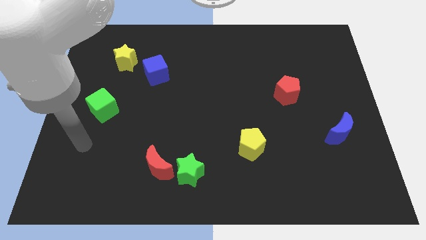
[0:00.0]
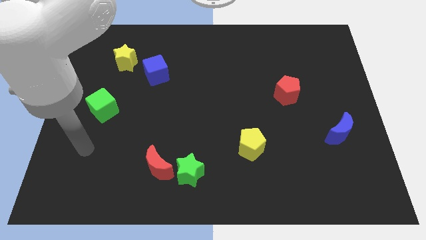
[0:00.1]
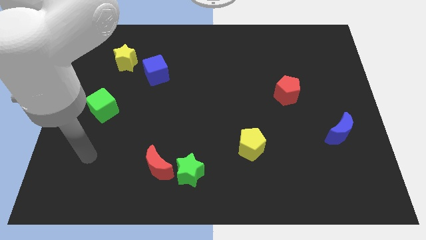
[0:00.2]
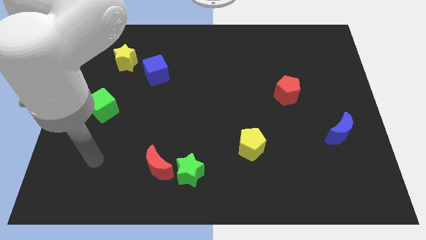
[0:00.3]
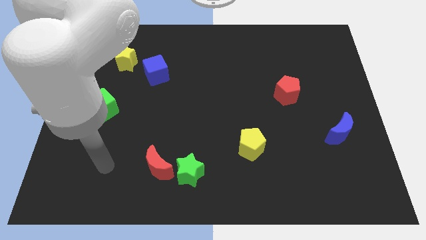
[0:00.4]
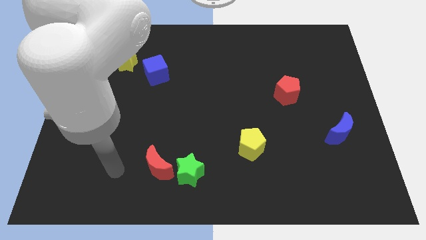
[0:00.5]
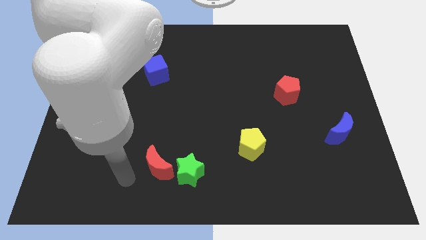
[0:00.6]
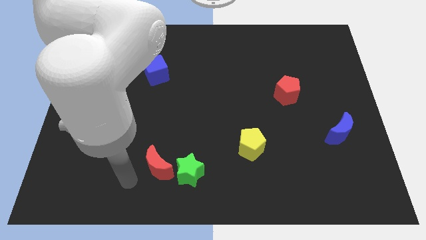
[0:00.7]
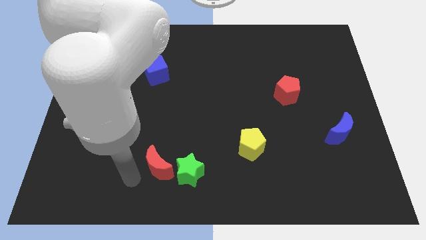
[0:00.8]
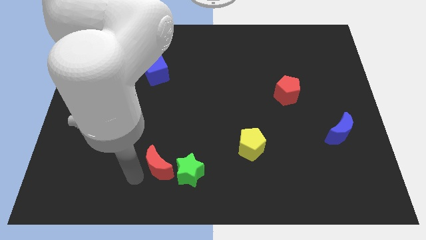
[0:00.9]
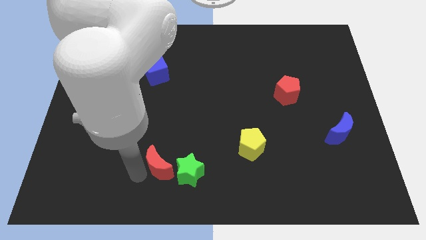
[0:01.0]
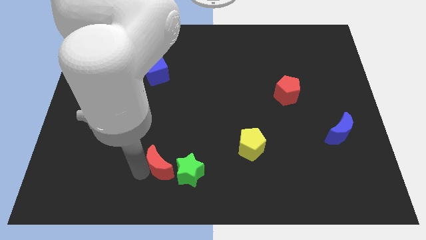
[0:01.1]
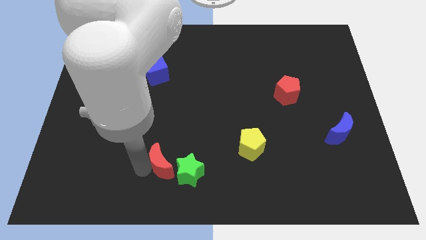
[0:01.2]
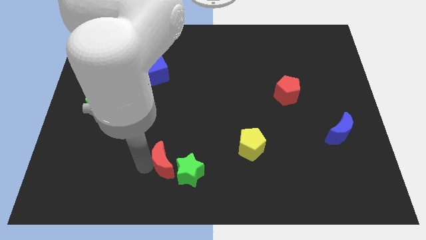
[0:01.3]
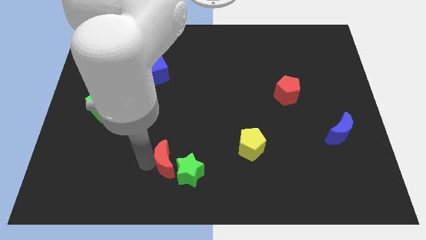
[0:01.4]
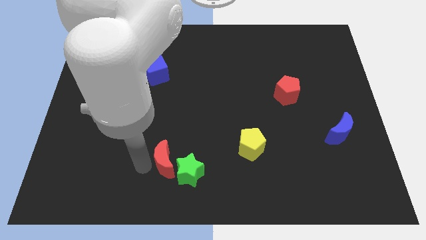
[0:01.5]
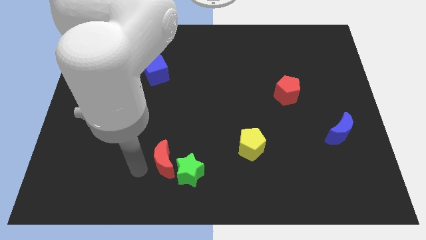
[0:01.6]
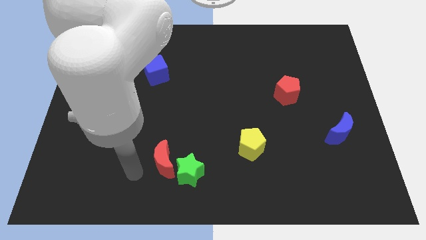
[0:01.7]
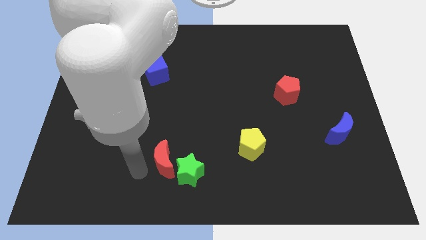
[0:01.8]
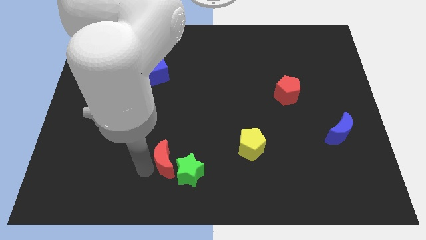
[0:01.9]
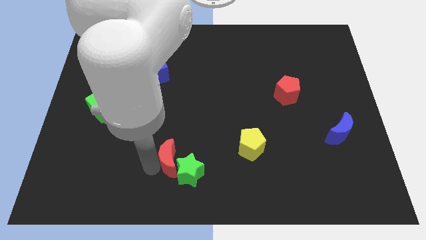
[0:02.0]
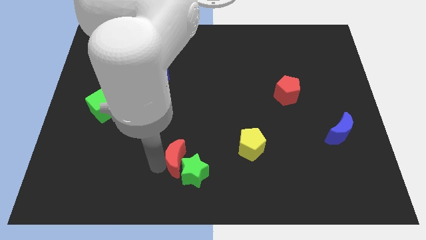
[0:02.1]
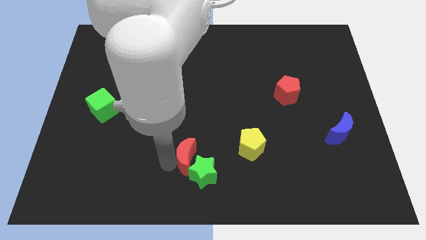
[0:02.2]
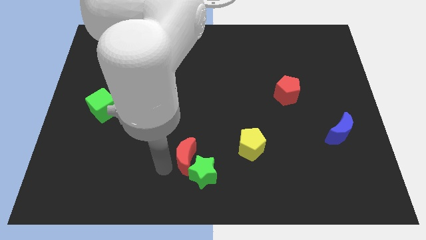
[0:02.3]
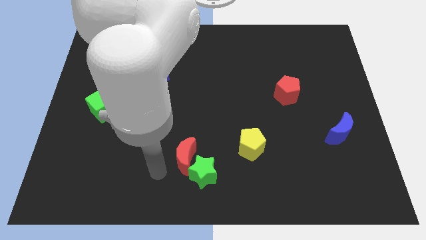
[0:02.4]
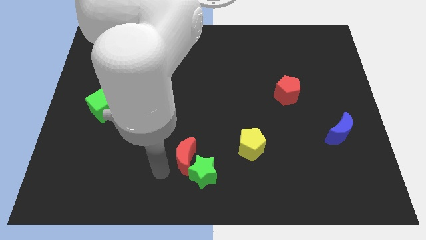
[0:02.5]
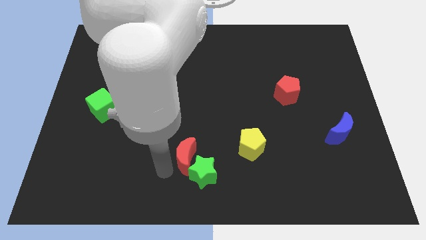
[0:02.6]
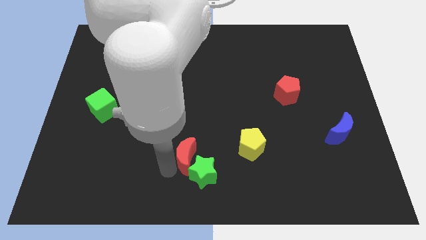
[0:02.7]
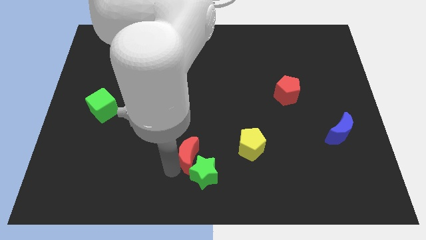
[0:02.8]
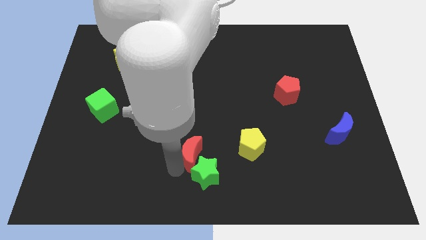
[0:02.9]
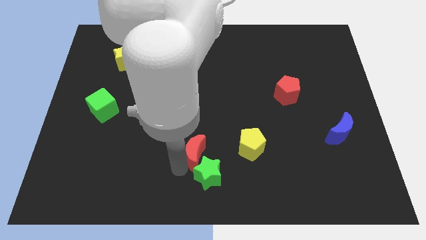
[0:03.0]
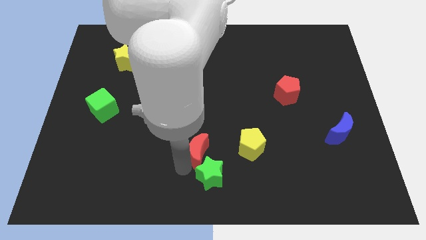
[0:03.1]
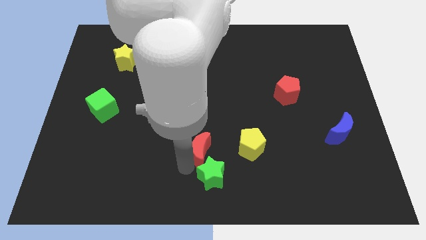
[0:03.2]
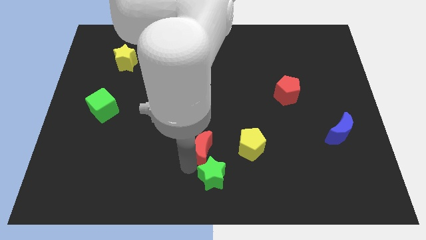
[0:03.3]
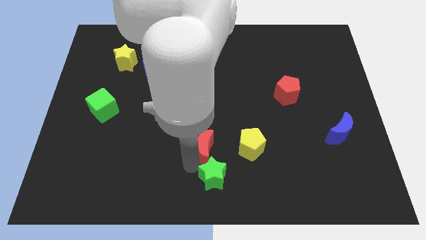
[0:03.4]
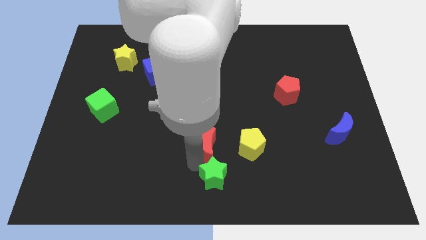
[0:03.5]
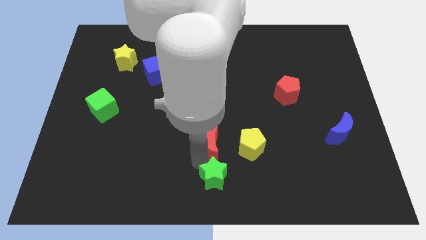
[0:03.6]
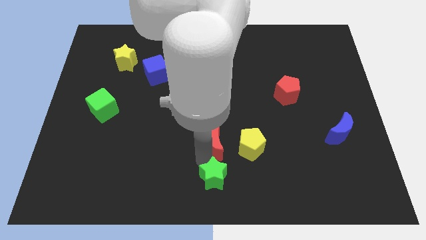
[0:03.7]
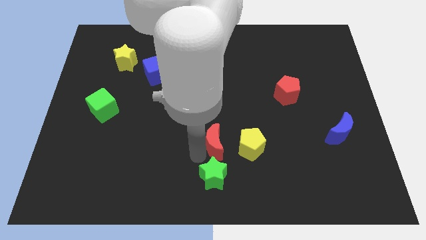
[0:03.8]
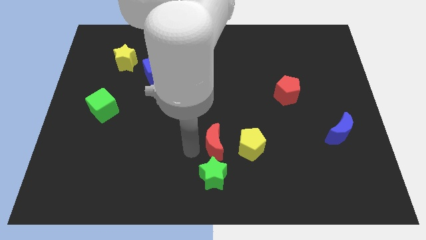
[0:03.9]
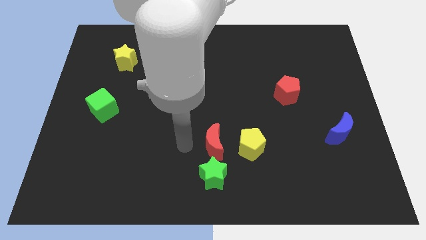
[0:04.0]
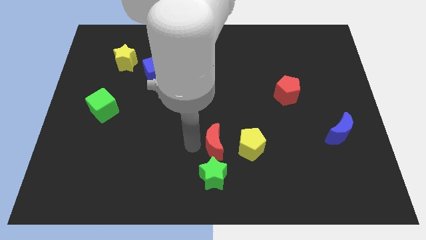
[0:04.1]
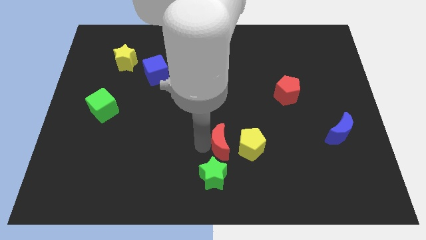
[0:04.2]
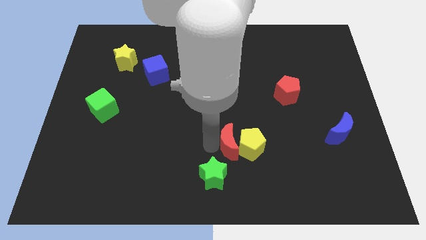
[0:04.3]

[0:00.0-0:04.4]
push the red moon to the yellow pentagon

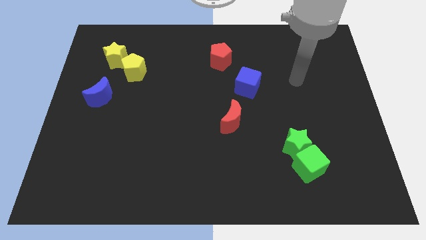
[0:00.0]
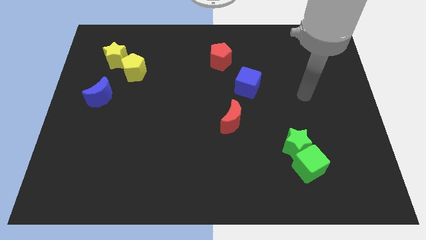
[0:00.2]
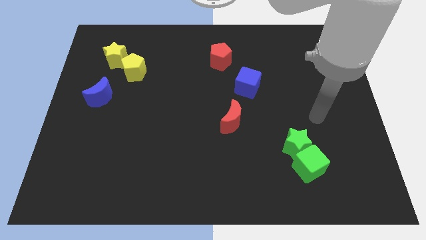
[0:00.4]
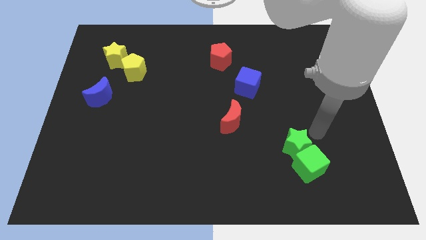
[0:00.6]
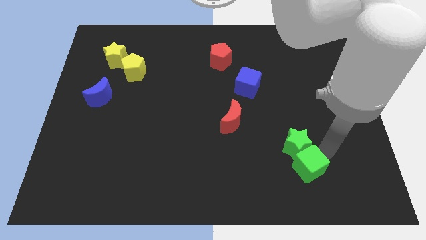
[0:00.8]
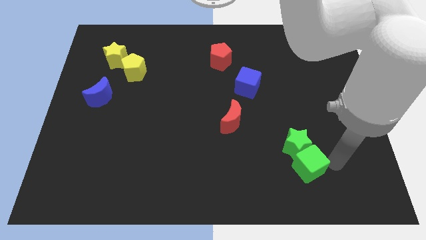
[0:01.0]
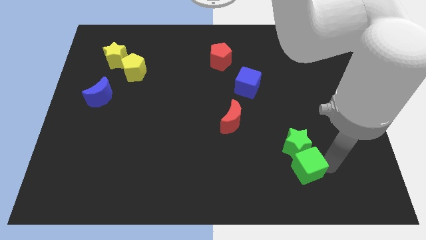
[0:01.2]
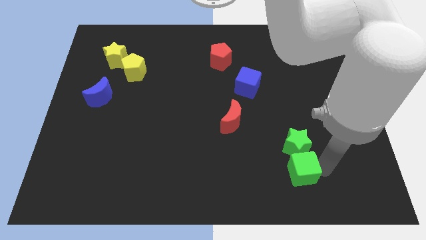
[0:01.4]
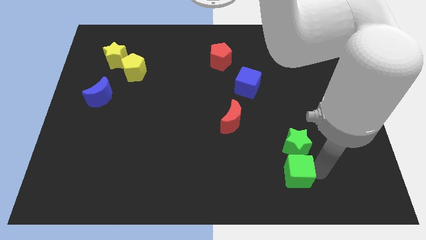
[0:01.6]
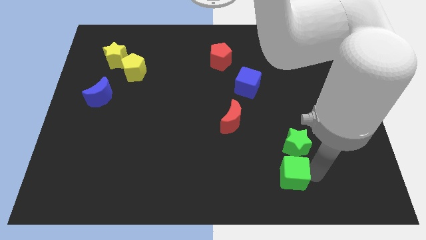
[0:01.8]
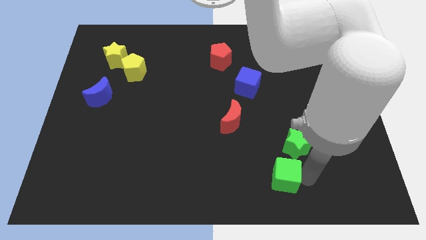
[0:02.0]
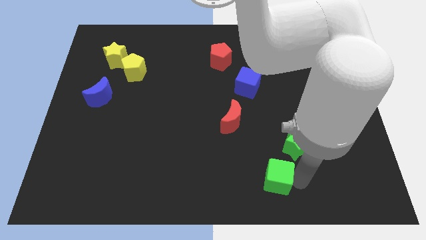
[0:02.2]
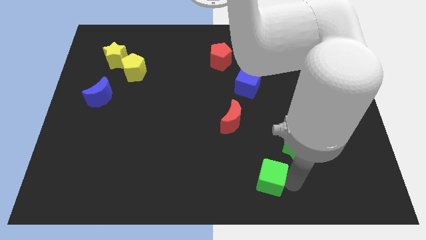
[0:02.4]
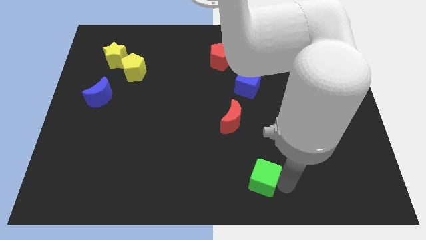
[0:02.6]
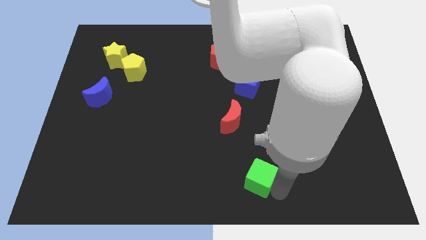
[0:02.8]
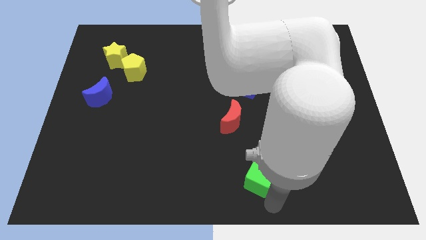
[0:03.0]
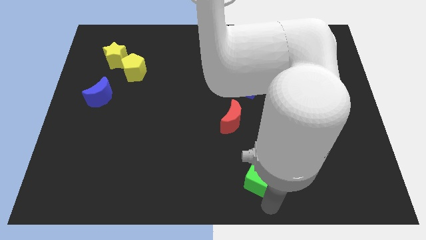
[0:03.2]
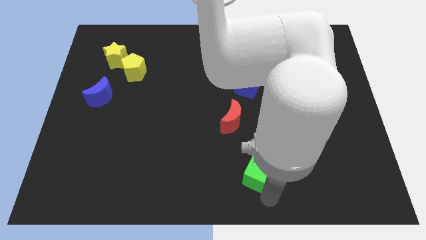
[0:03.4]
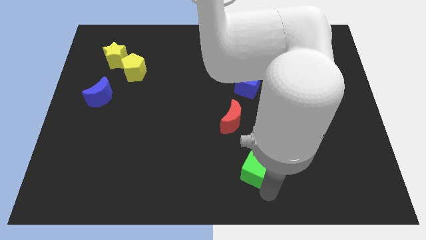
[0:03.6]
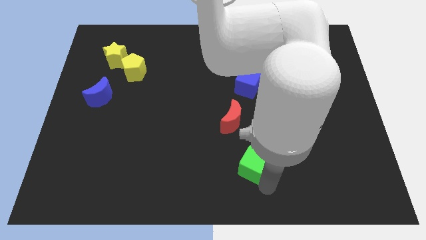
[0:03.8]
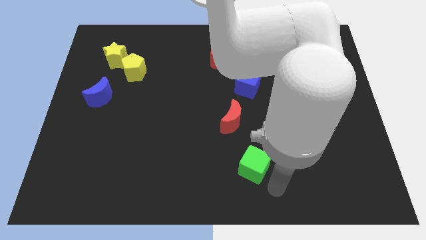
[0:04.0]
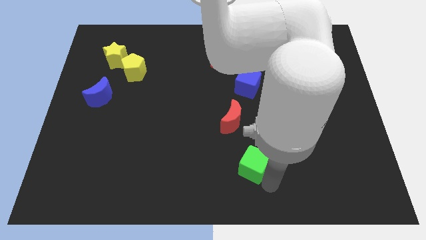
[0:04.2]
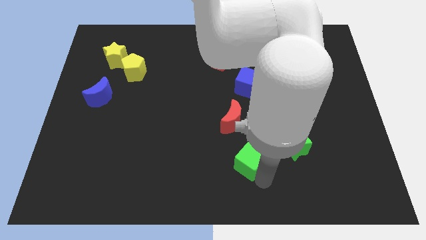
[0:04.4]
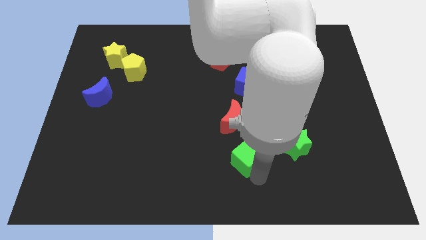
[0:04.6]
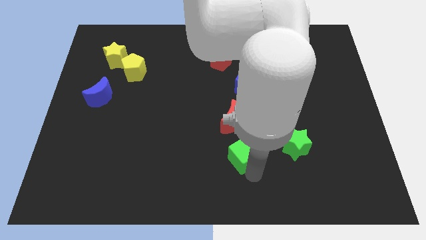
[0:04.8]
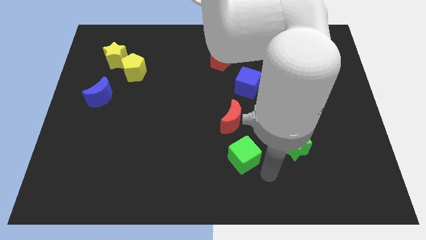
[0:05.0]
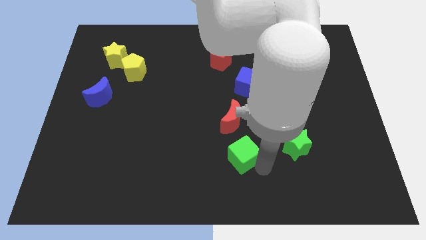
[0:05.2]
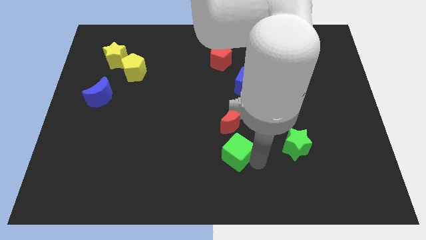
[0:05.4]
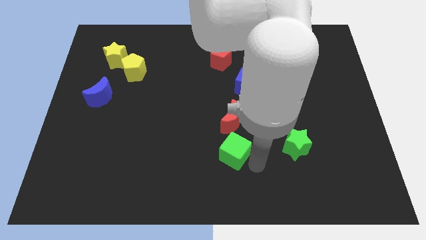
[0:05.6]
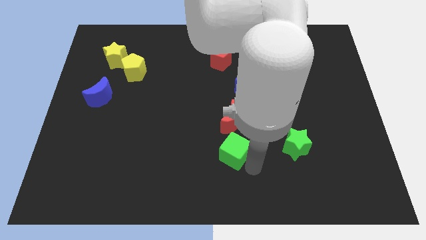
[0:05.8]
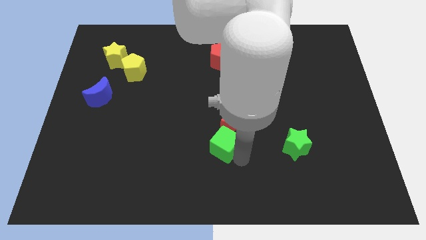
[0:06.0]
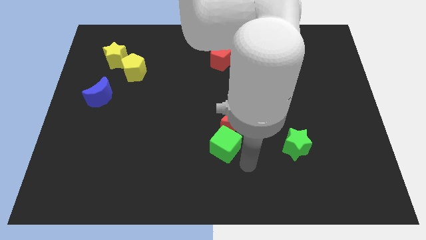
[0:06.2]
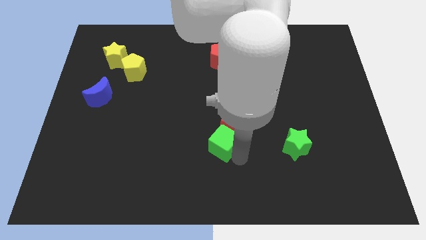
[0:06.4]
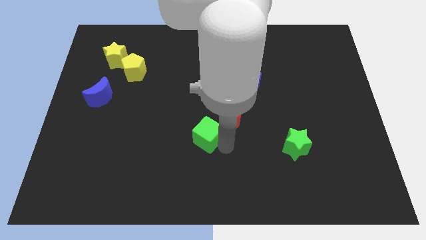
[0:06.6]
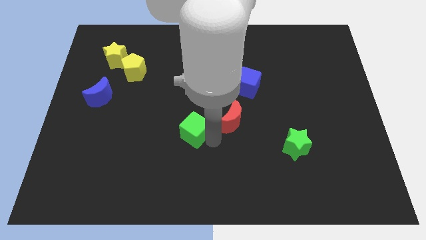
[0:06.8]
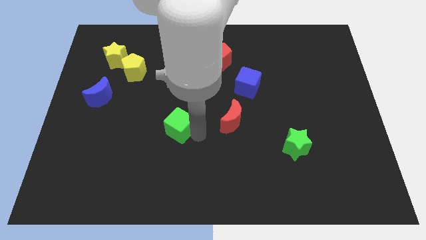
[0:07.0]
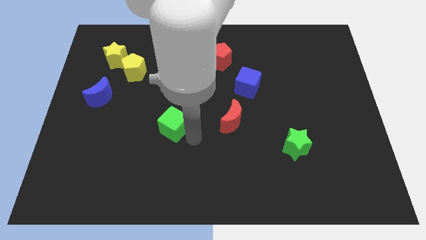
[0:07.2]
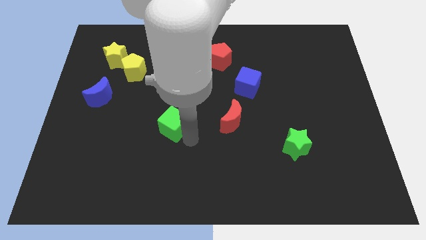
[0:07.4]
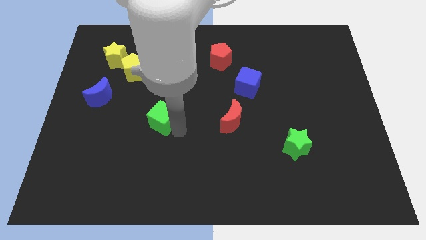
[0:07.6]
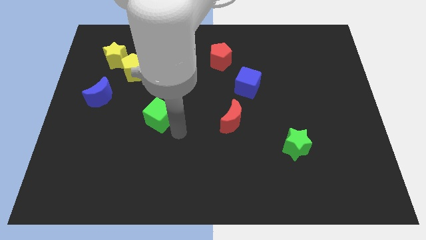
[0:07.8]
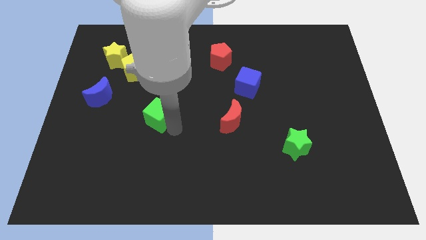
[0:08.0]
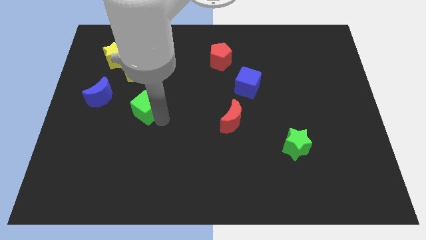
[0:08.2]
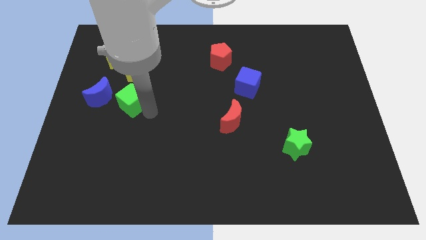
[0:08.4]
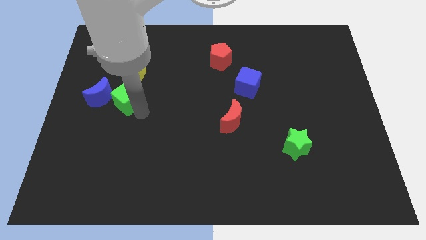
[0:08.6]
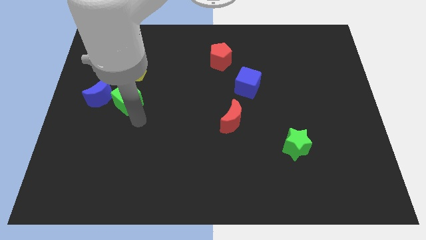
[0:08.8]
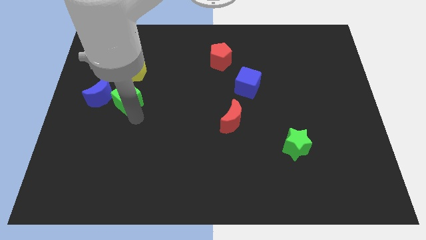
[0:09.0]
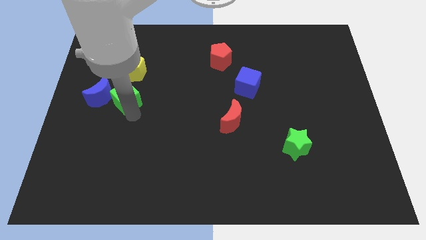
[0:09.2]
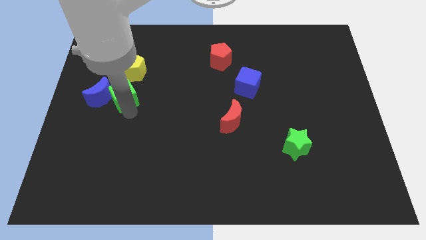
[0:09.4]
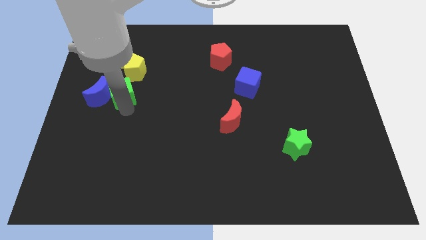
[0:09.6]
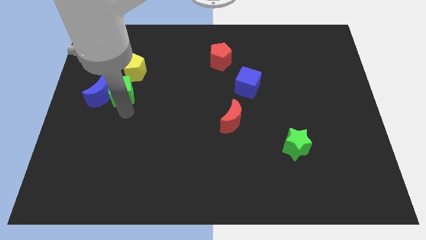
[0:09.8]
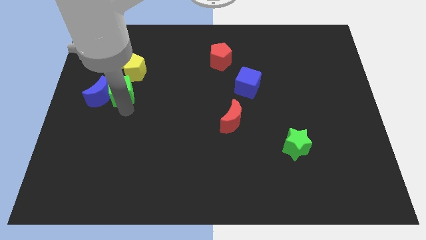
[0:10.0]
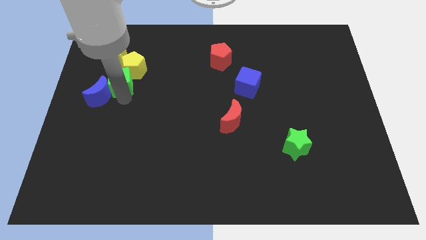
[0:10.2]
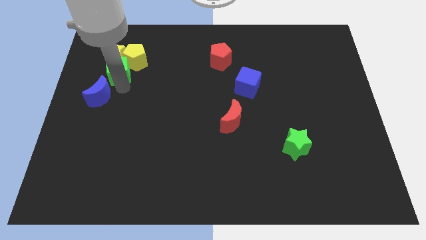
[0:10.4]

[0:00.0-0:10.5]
put the green cube to the yellow star
